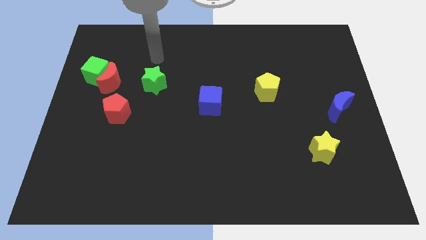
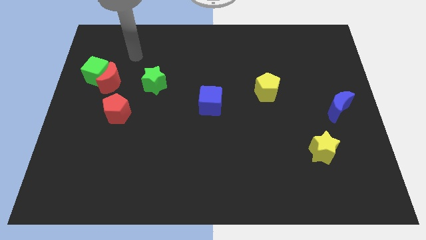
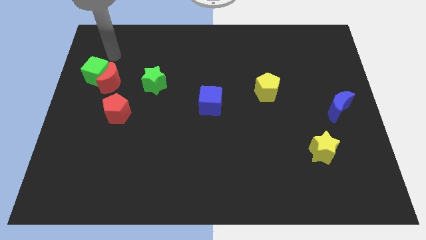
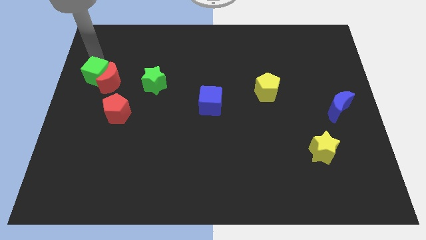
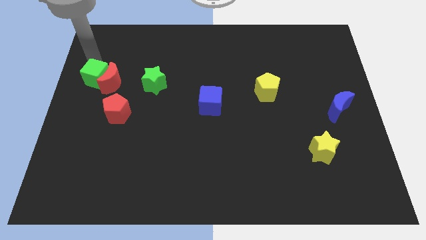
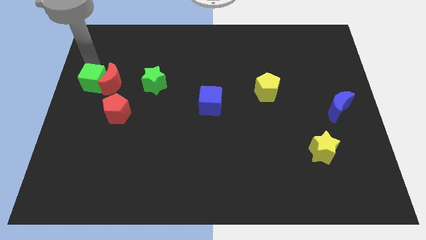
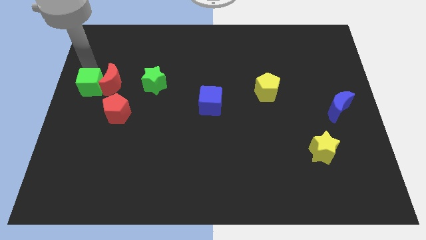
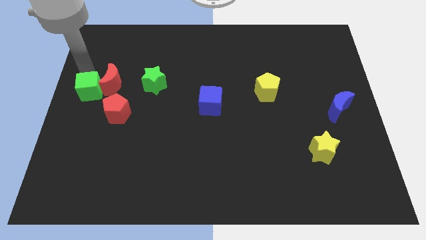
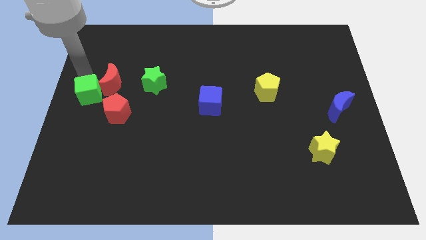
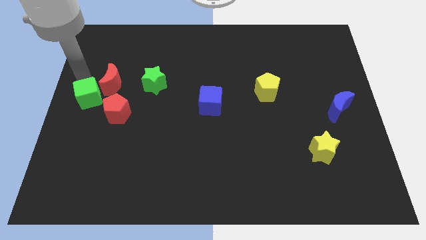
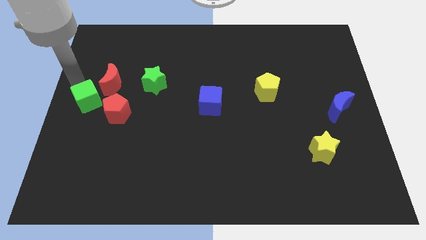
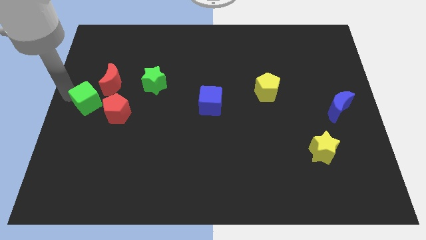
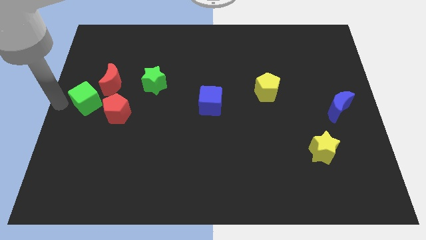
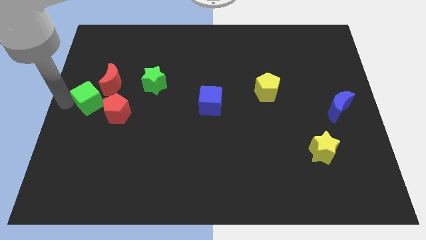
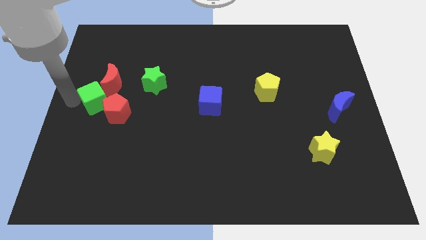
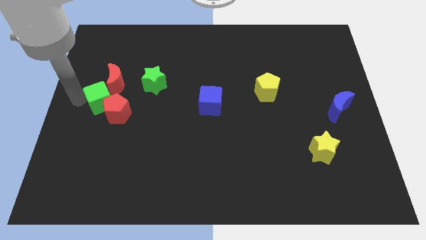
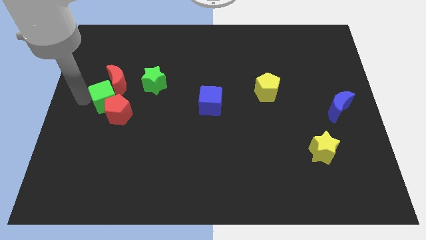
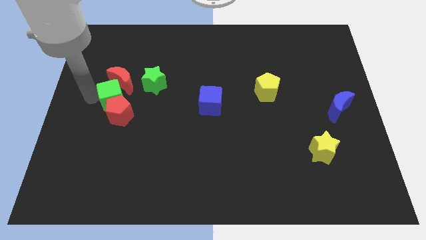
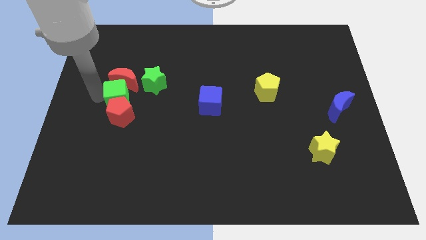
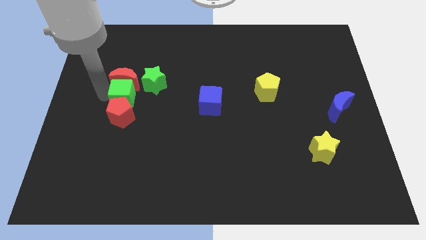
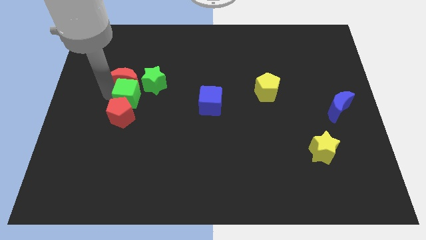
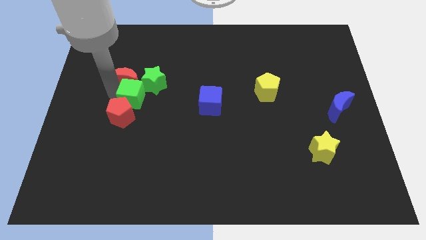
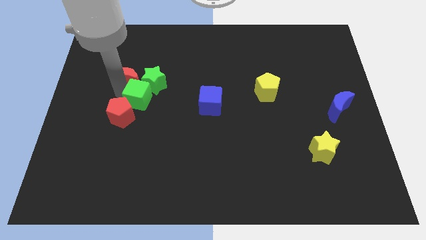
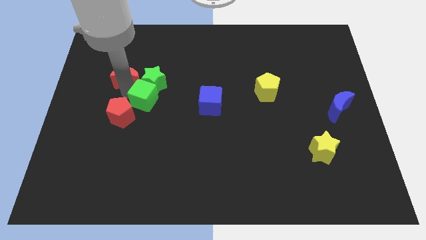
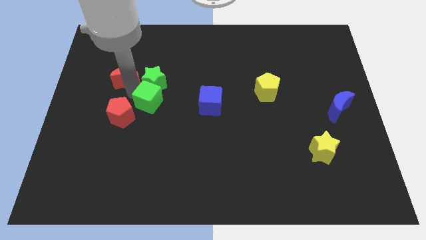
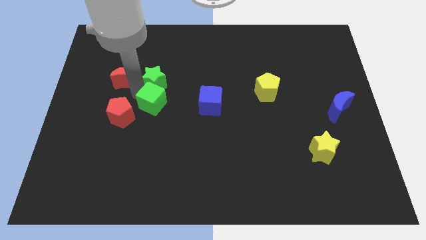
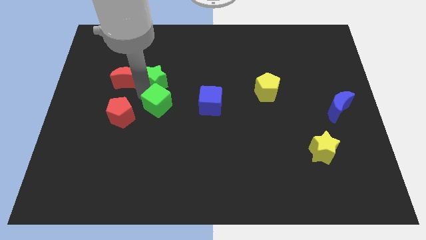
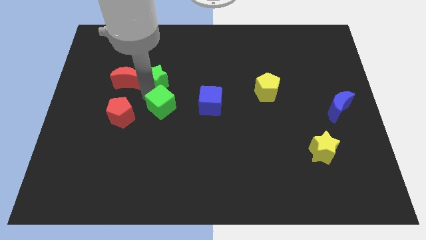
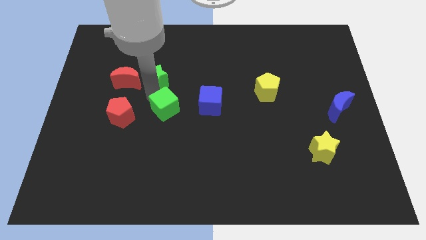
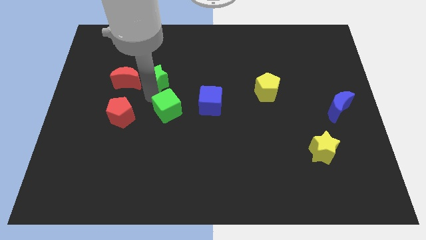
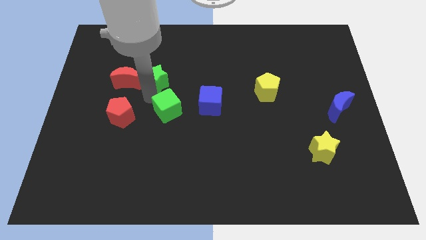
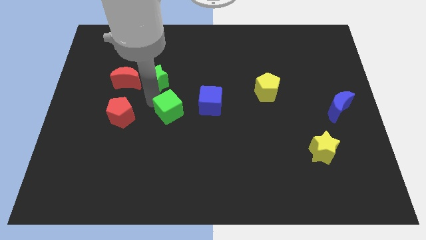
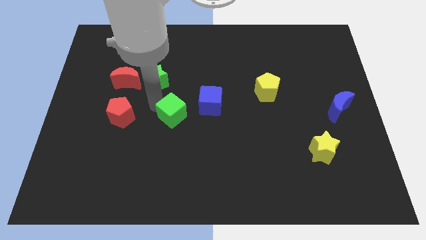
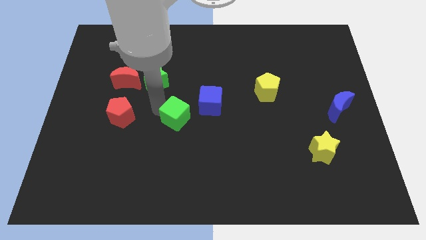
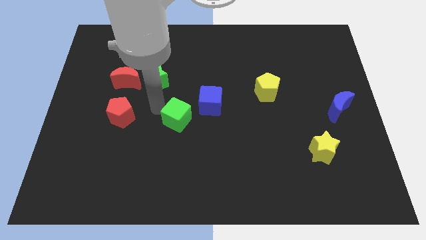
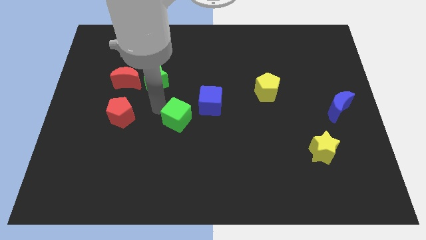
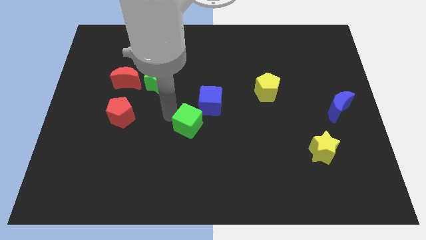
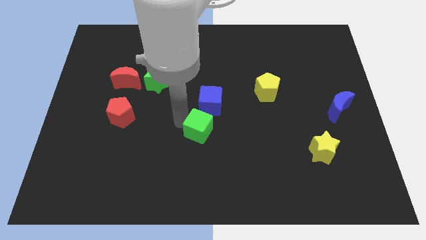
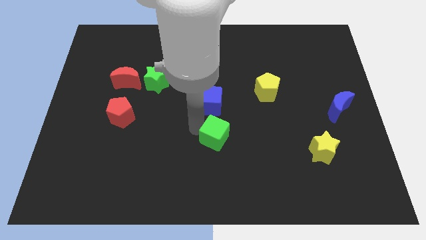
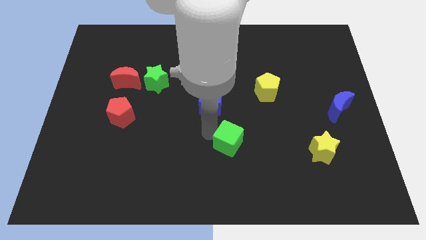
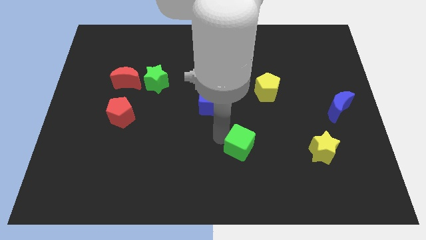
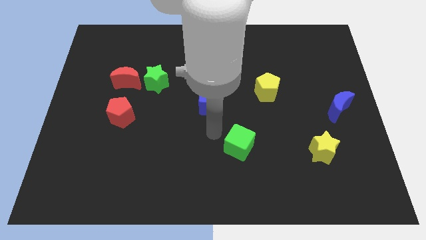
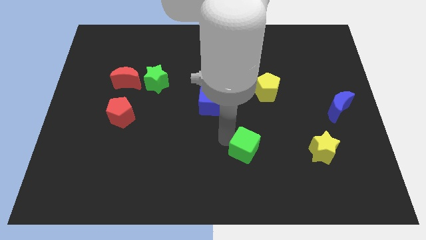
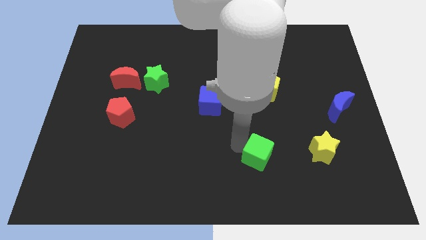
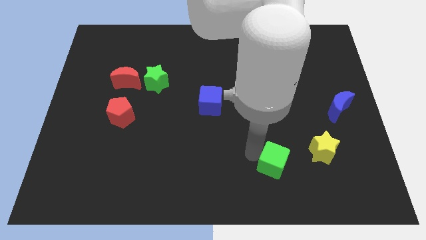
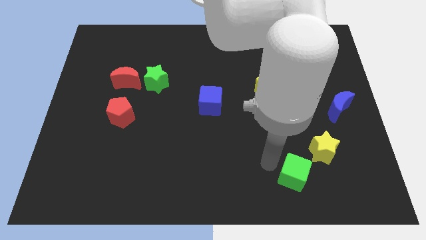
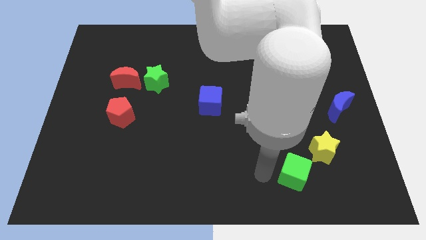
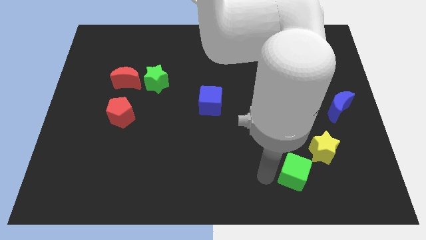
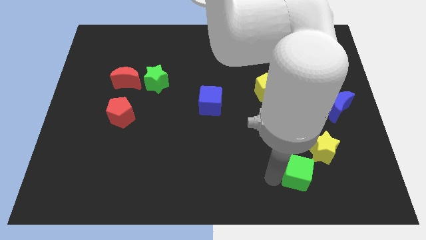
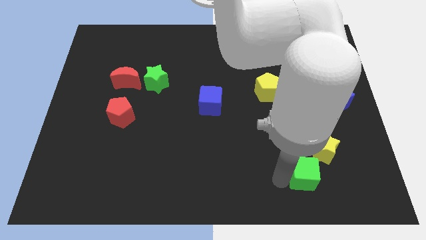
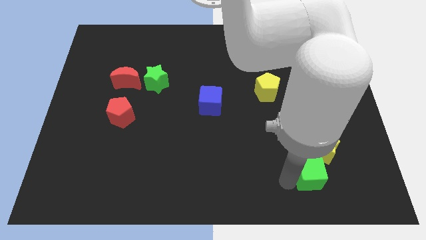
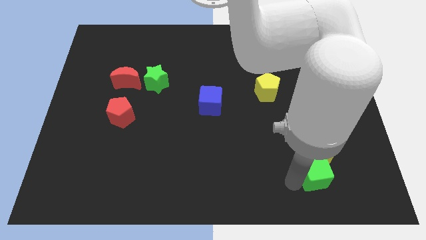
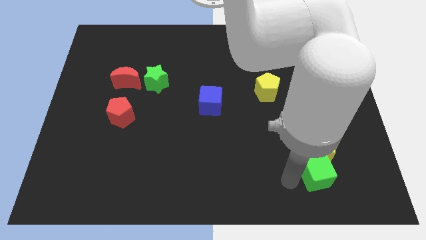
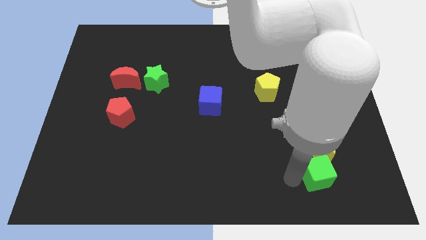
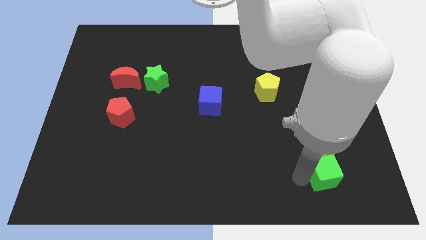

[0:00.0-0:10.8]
push the green cube to the bottom right of the yellow star

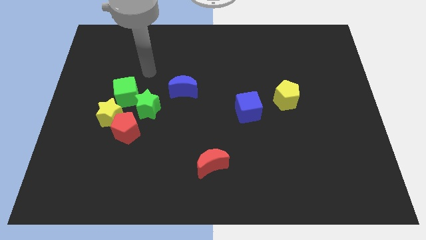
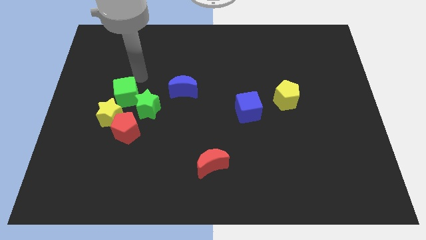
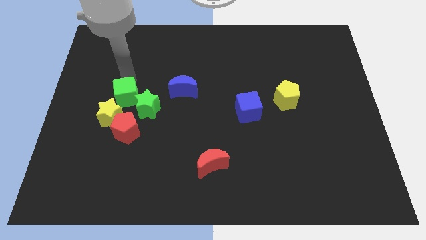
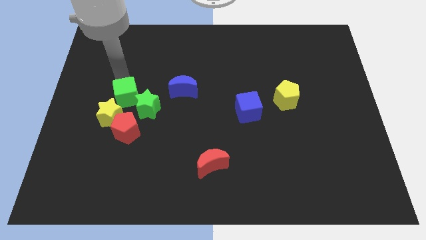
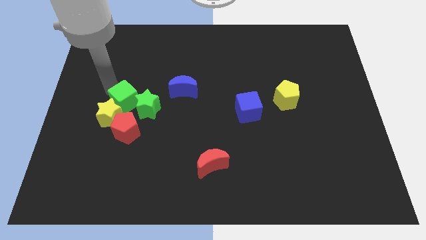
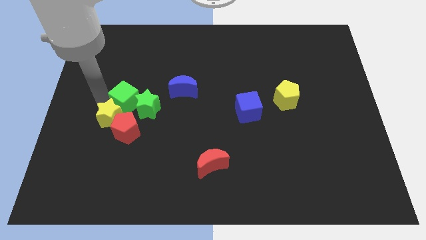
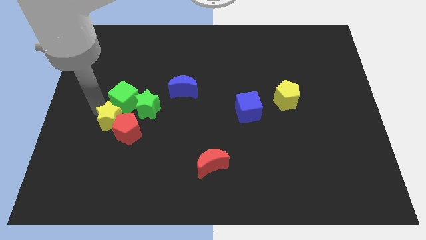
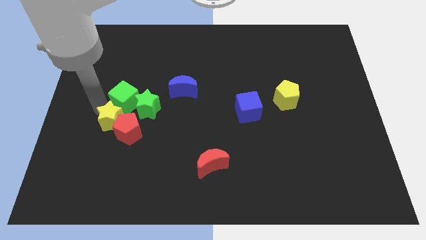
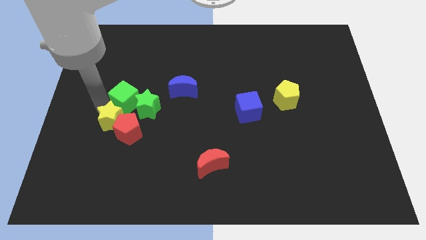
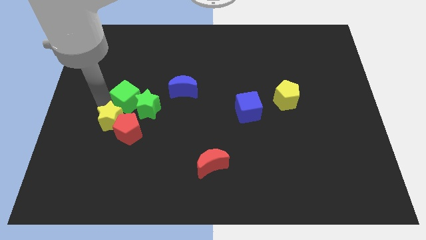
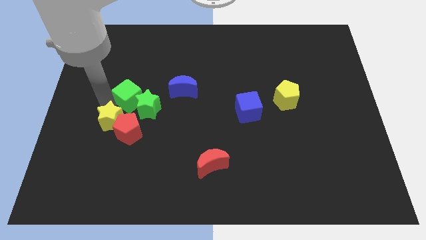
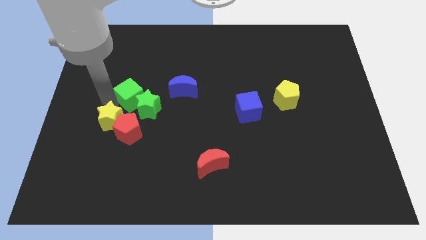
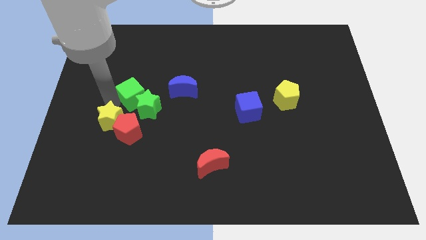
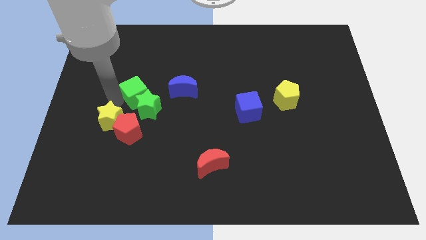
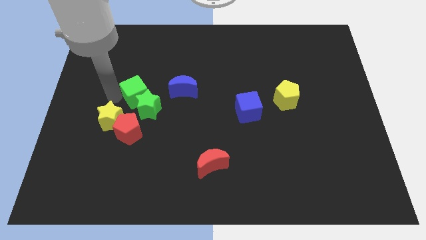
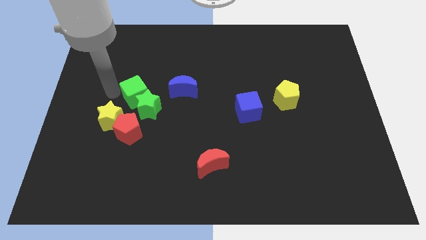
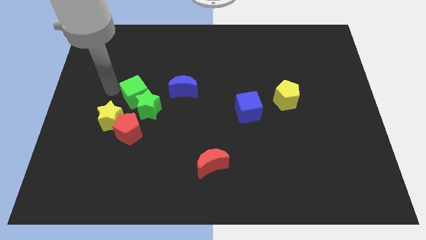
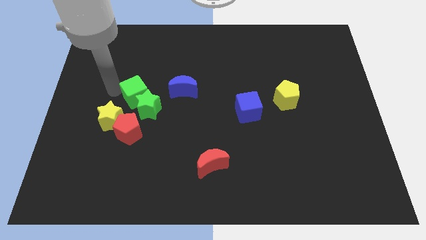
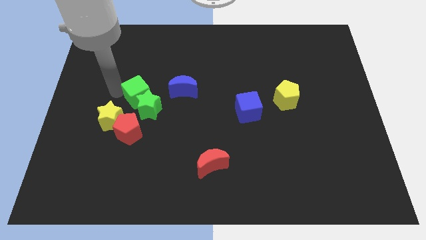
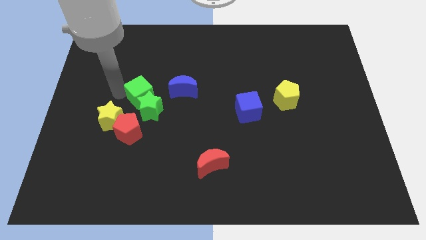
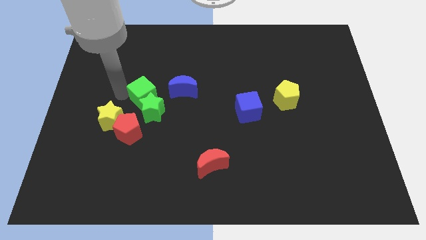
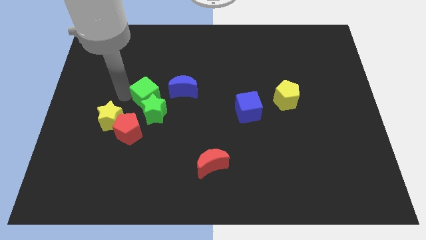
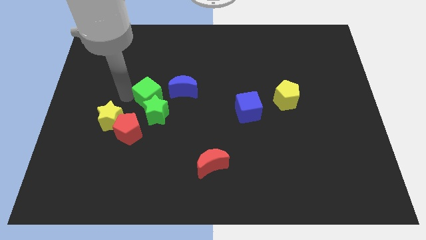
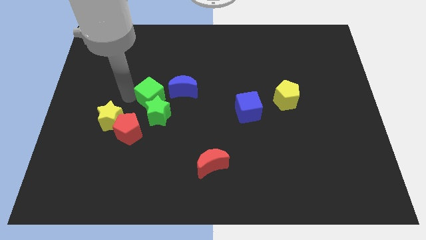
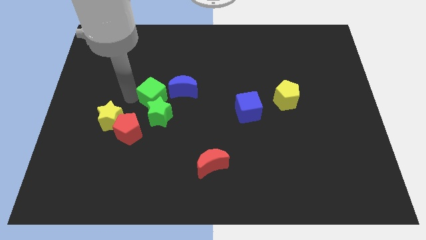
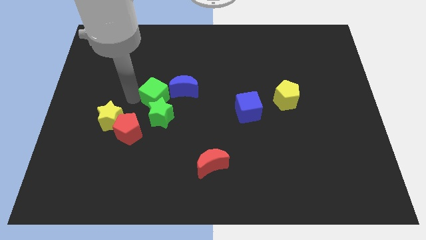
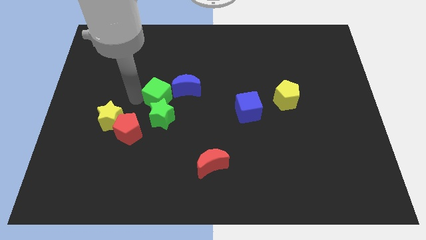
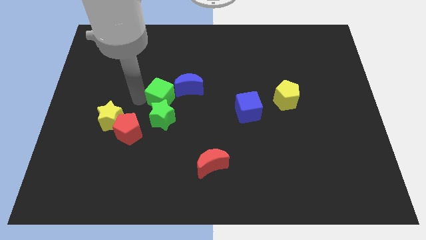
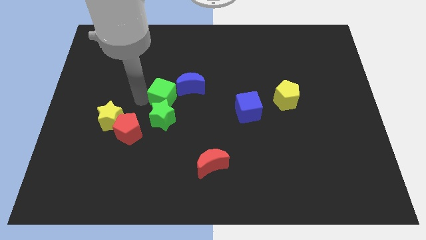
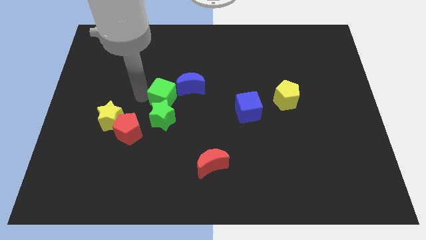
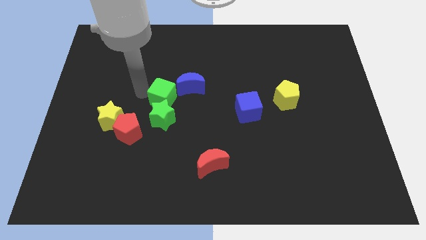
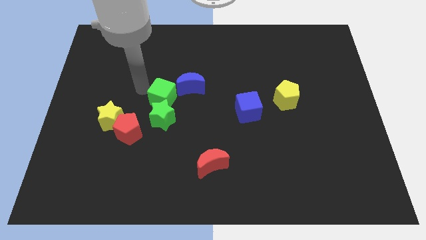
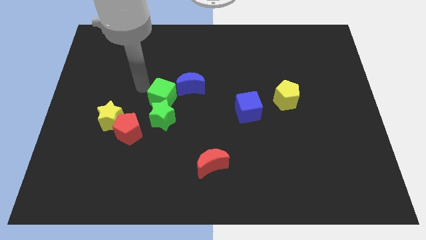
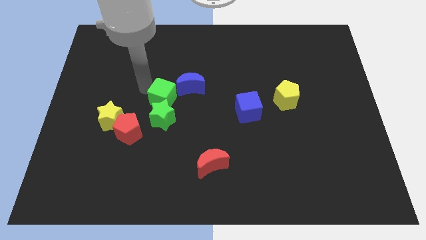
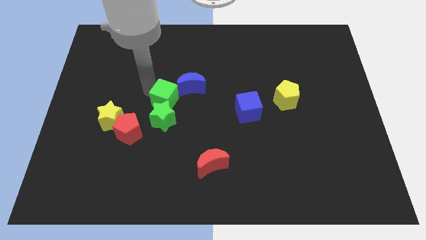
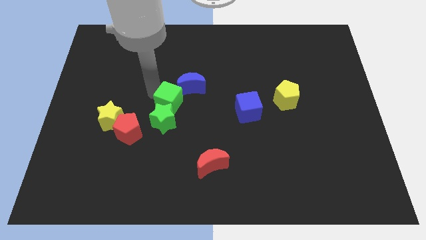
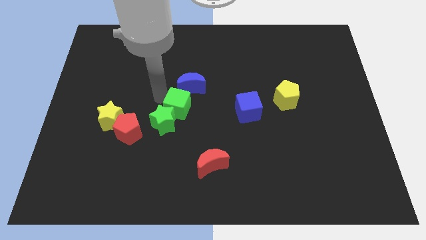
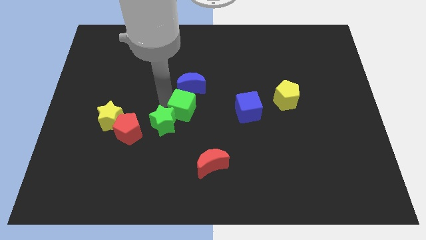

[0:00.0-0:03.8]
push the green cube to the left of the blue cube
